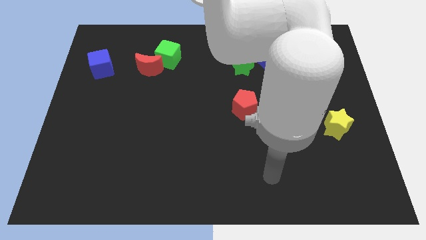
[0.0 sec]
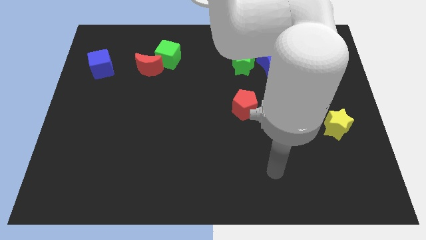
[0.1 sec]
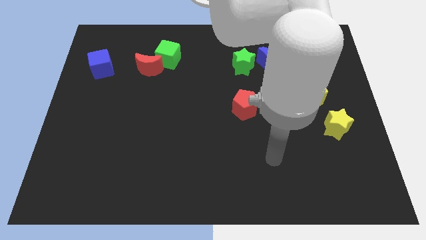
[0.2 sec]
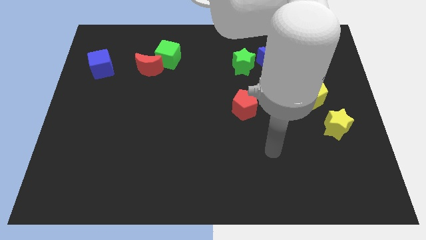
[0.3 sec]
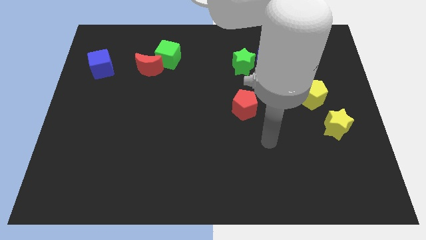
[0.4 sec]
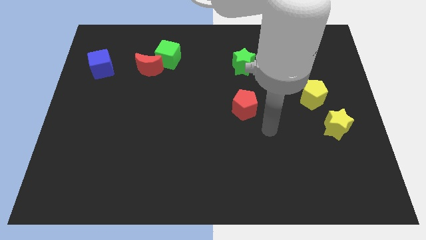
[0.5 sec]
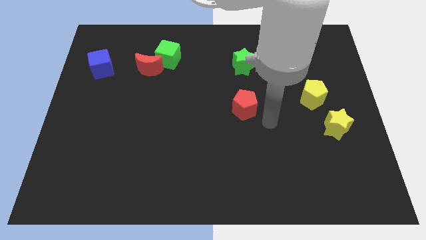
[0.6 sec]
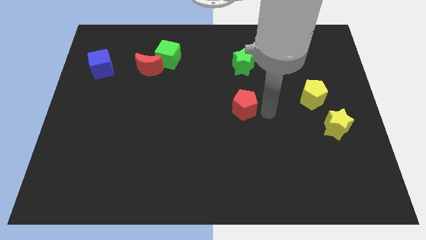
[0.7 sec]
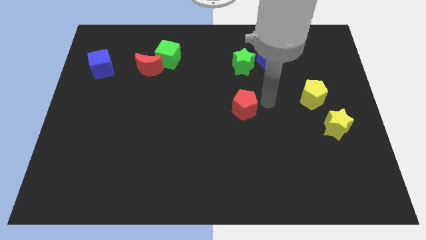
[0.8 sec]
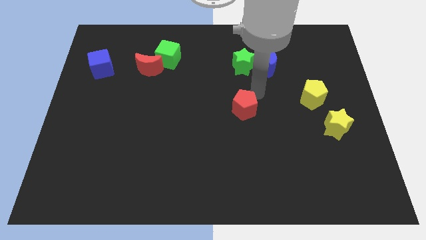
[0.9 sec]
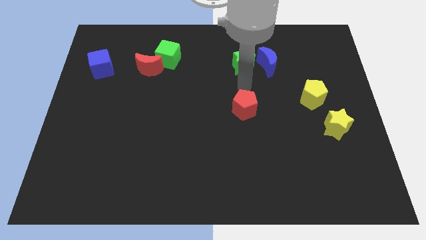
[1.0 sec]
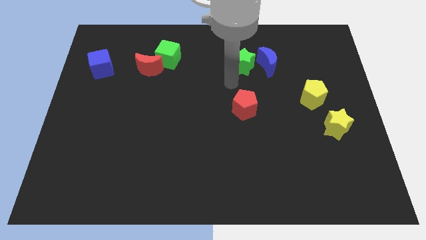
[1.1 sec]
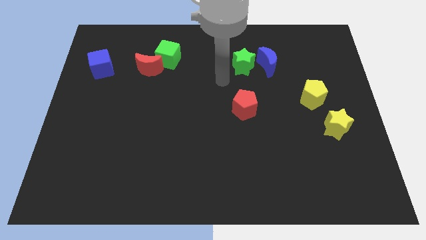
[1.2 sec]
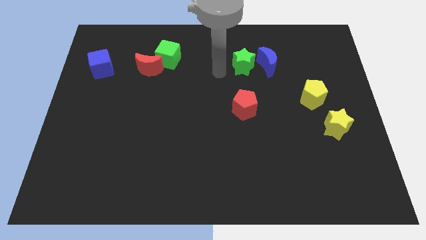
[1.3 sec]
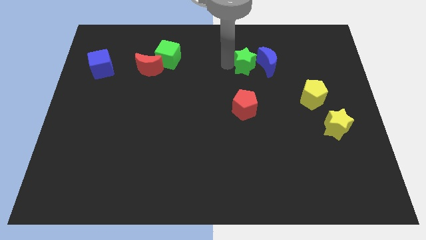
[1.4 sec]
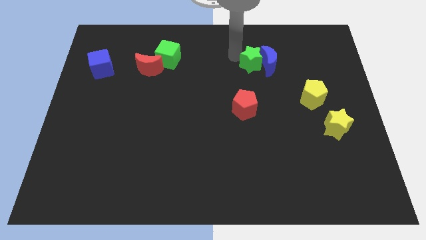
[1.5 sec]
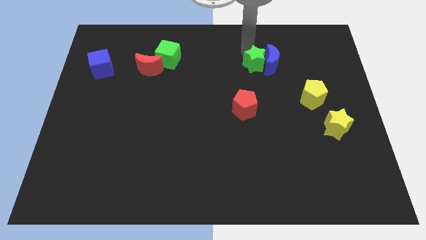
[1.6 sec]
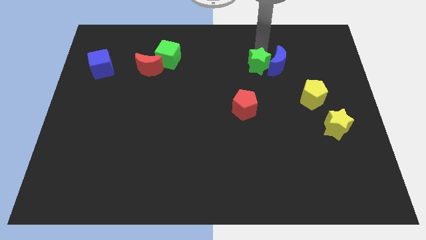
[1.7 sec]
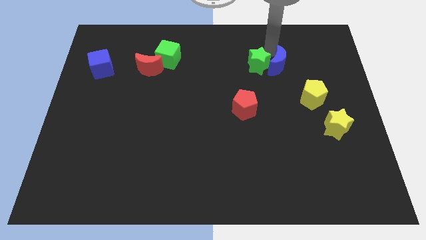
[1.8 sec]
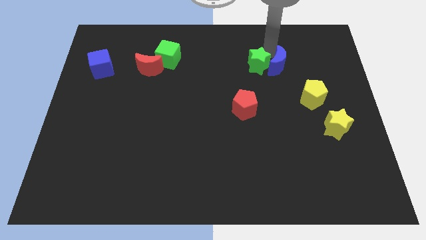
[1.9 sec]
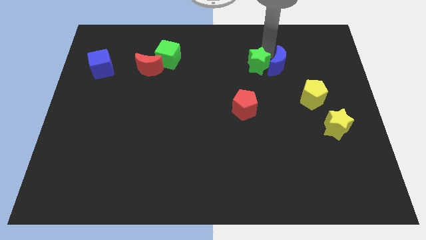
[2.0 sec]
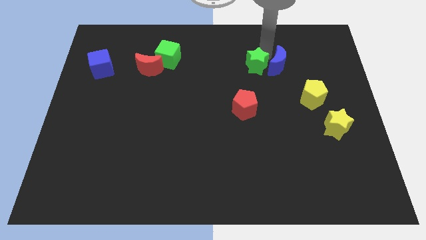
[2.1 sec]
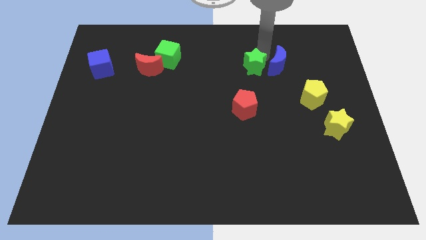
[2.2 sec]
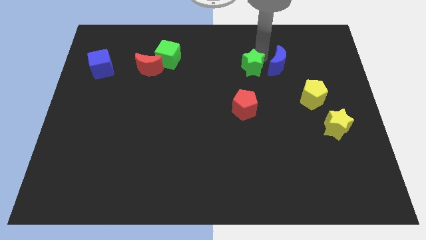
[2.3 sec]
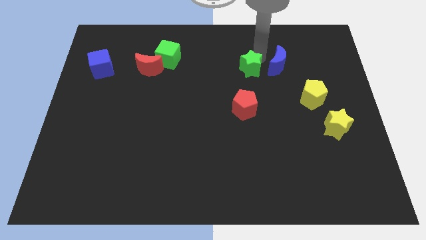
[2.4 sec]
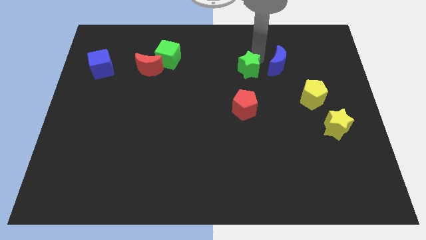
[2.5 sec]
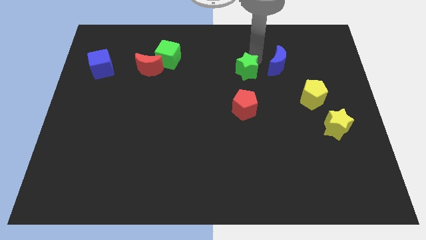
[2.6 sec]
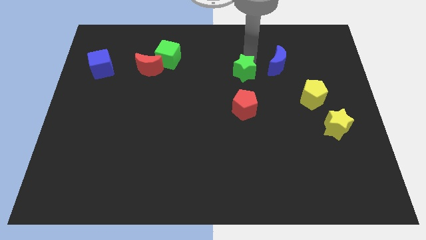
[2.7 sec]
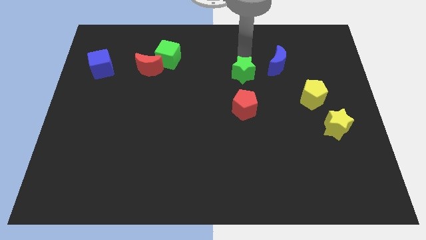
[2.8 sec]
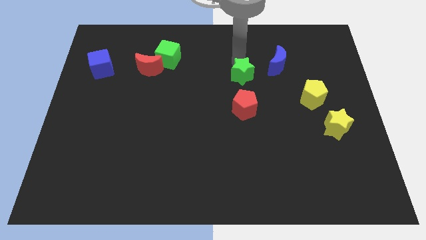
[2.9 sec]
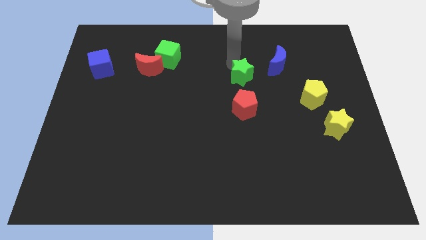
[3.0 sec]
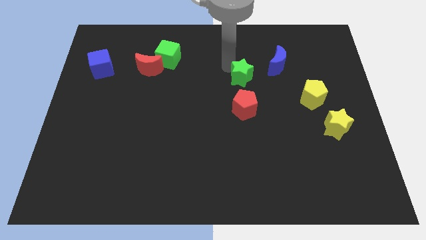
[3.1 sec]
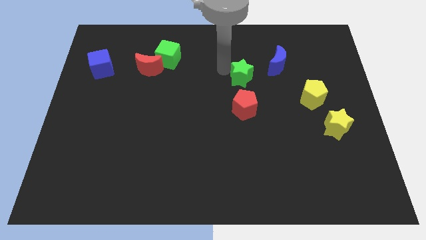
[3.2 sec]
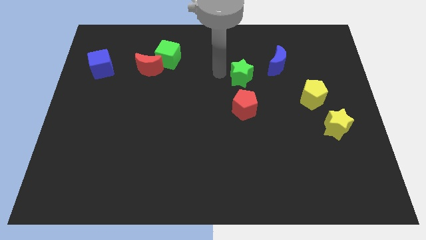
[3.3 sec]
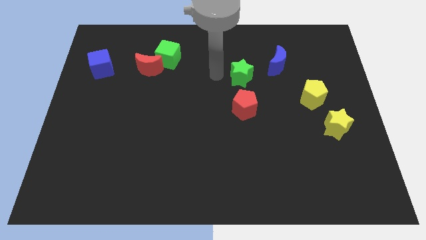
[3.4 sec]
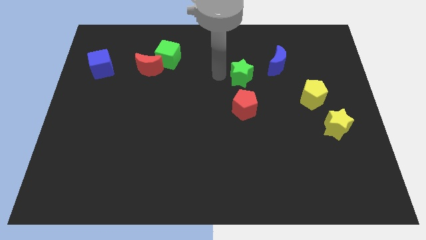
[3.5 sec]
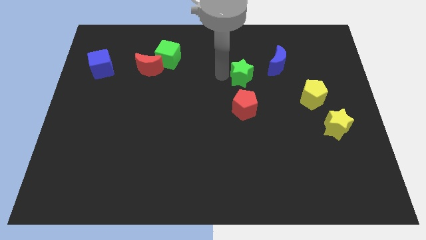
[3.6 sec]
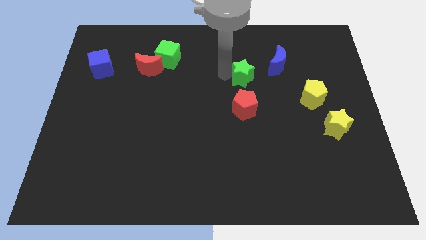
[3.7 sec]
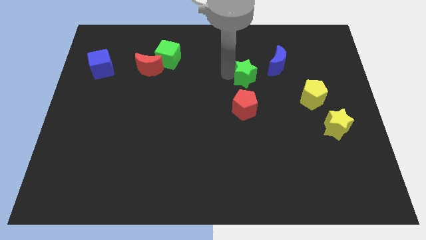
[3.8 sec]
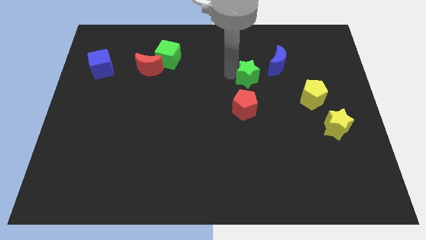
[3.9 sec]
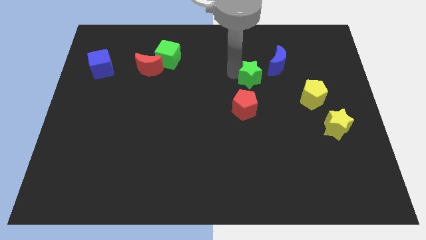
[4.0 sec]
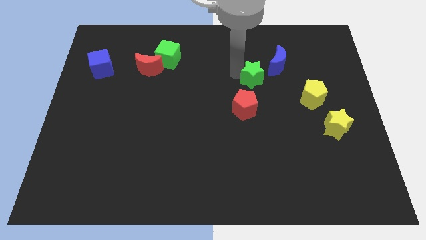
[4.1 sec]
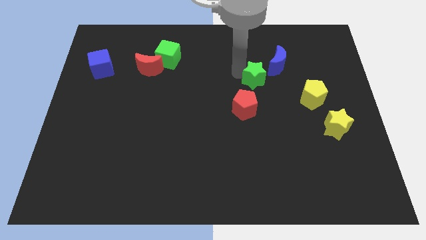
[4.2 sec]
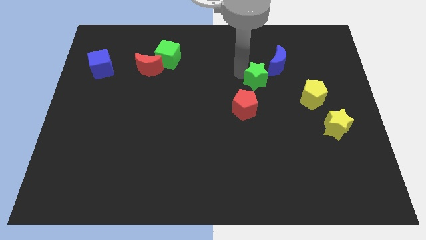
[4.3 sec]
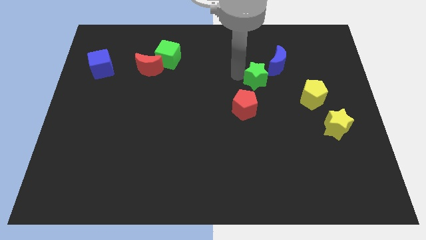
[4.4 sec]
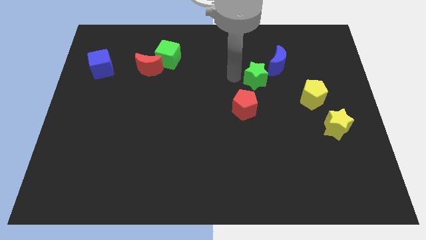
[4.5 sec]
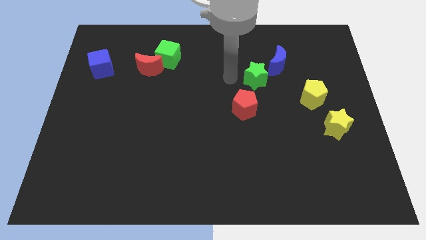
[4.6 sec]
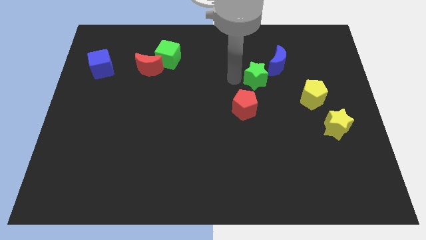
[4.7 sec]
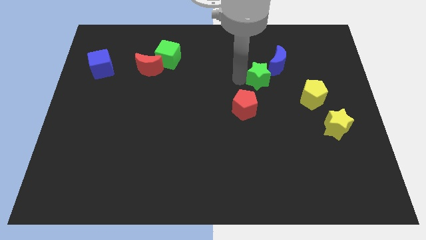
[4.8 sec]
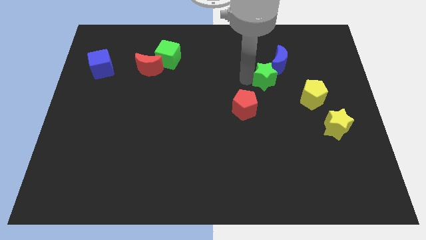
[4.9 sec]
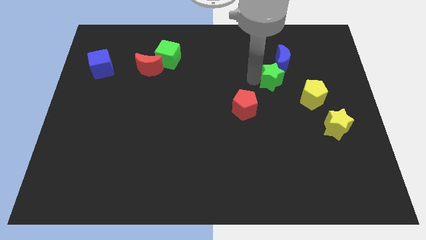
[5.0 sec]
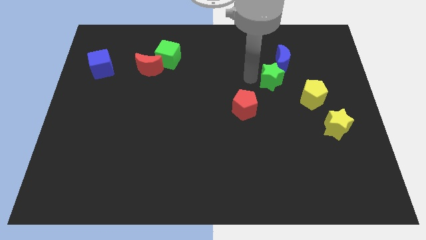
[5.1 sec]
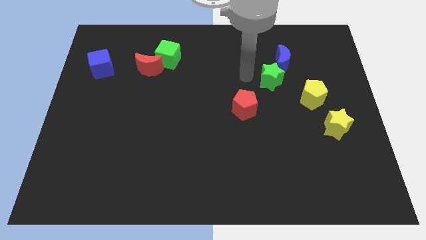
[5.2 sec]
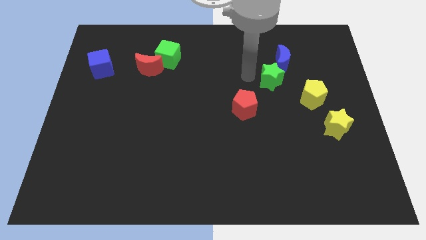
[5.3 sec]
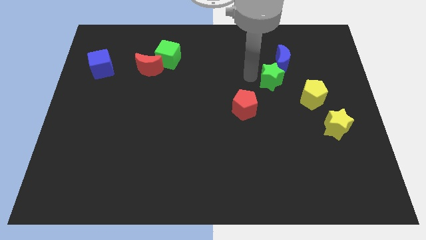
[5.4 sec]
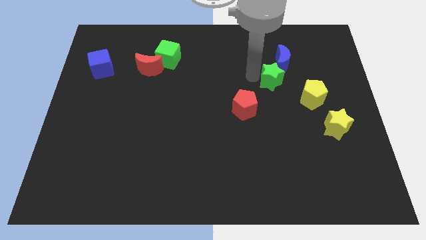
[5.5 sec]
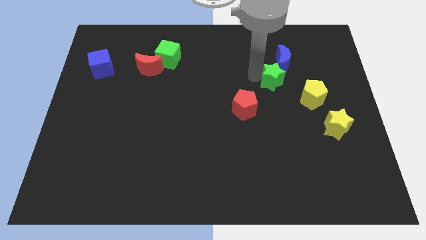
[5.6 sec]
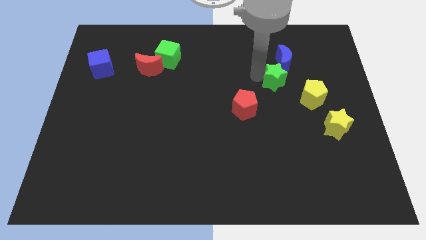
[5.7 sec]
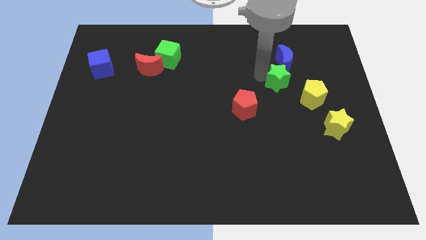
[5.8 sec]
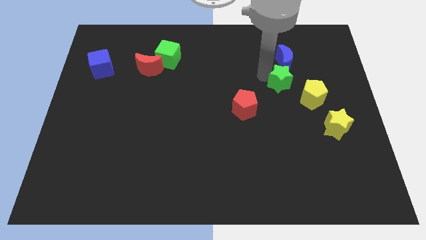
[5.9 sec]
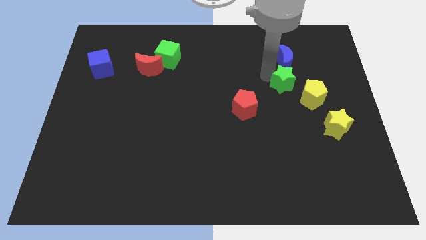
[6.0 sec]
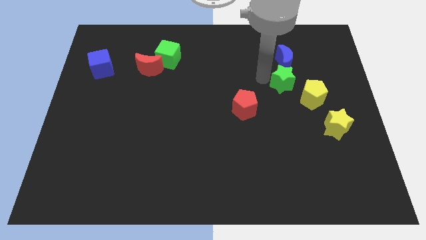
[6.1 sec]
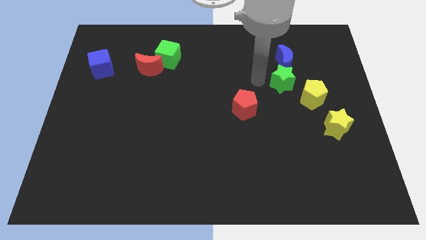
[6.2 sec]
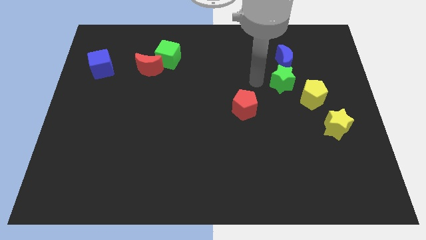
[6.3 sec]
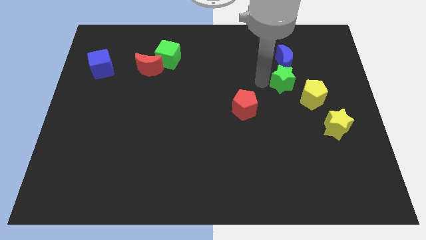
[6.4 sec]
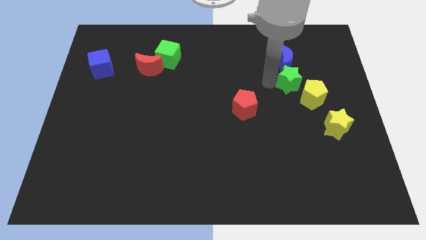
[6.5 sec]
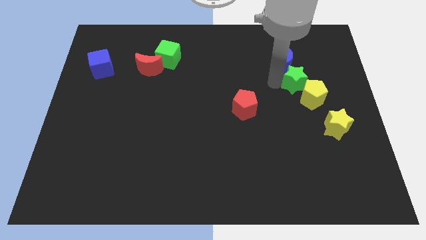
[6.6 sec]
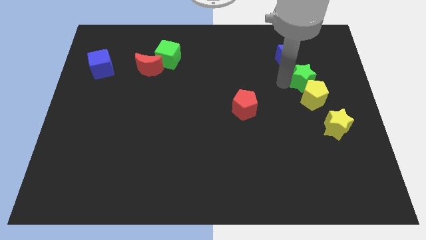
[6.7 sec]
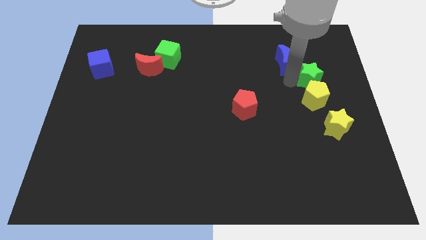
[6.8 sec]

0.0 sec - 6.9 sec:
put the green star above the yellow star
